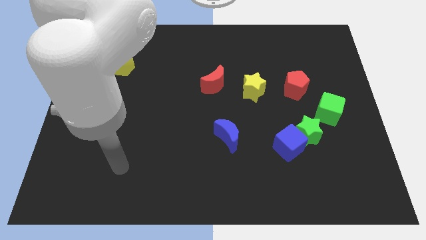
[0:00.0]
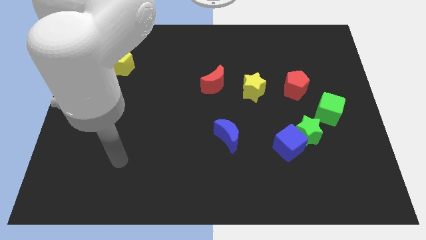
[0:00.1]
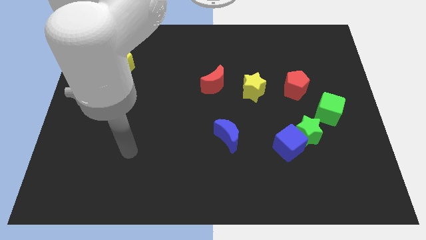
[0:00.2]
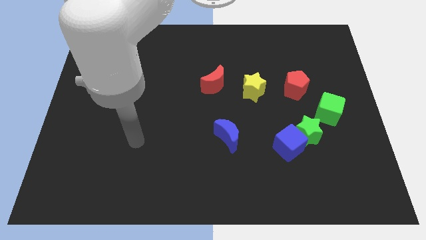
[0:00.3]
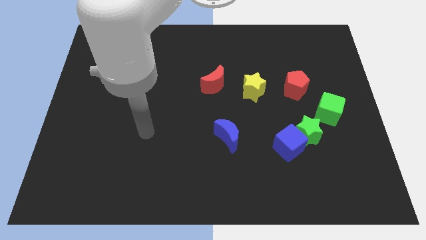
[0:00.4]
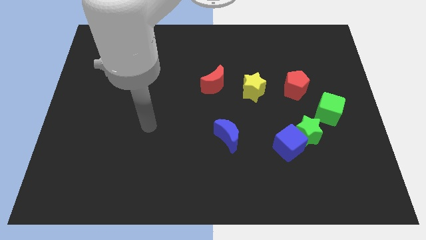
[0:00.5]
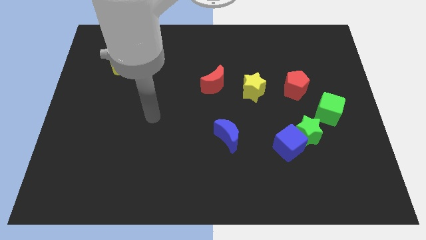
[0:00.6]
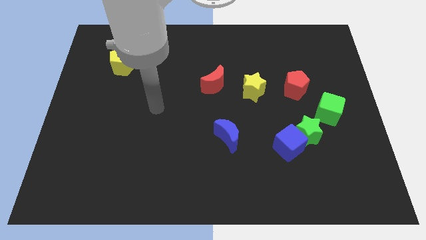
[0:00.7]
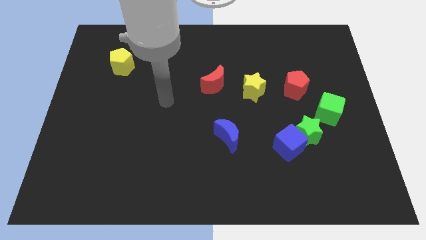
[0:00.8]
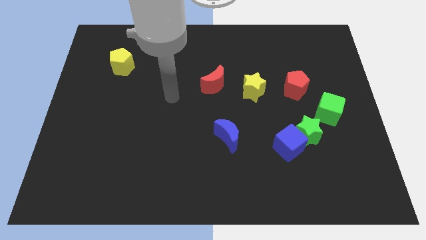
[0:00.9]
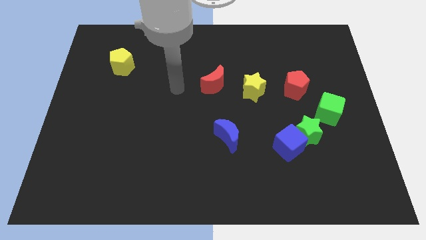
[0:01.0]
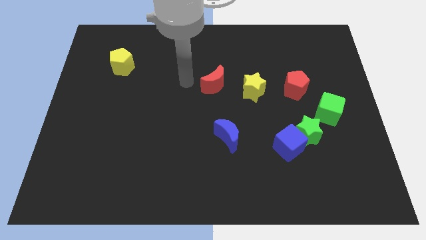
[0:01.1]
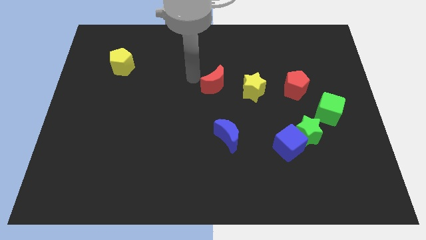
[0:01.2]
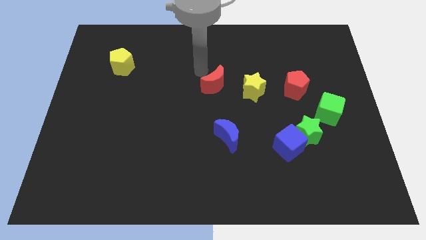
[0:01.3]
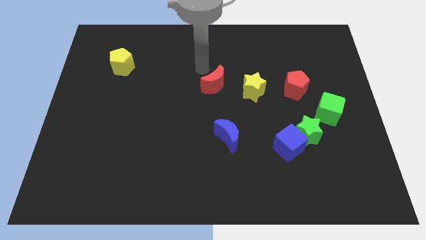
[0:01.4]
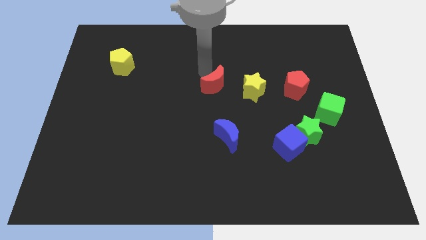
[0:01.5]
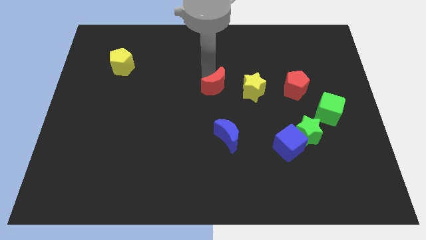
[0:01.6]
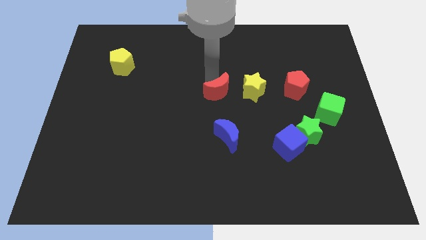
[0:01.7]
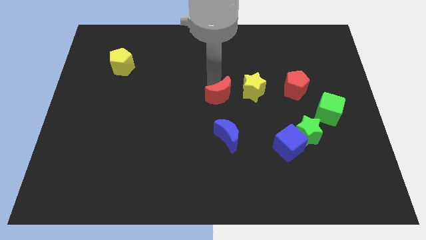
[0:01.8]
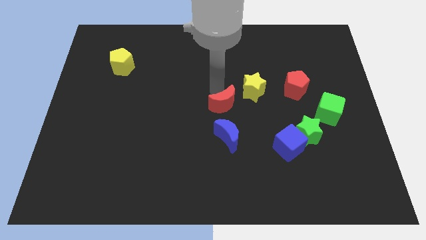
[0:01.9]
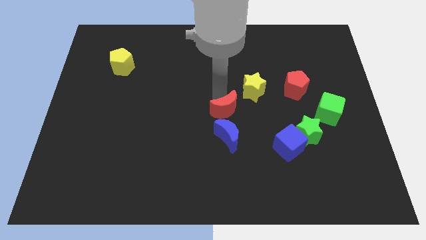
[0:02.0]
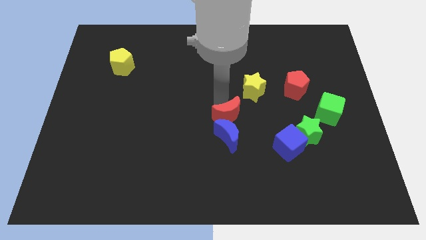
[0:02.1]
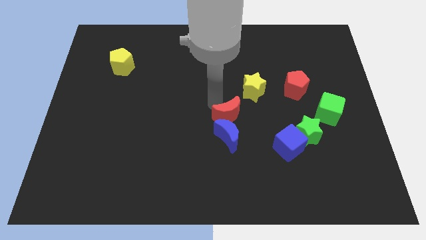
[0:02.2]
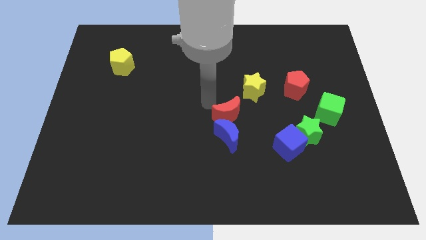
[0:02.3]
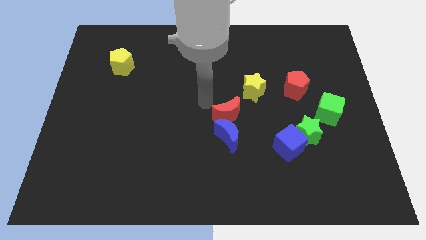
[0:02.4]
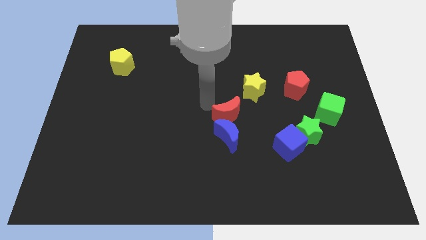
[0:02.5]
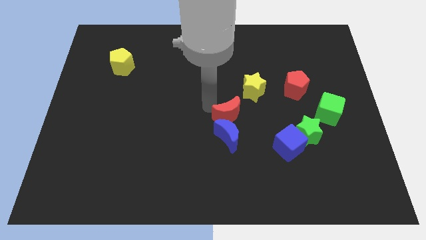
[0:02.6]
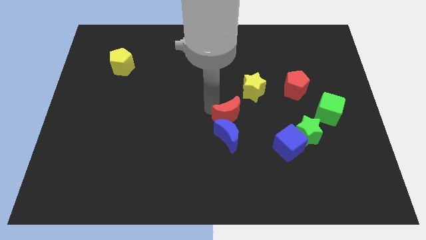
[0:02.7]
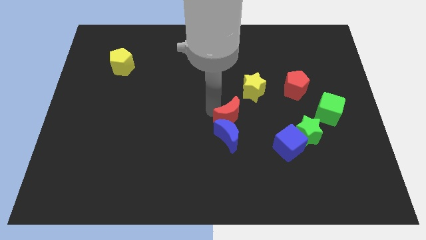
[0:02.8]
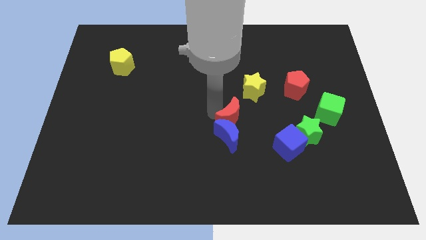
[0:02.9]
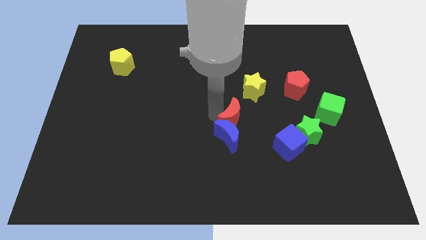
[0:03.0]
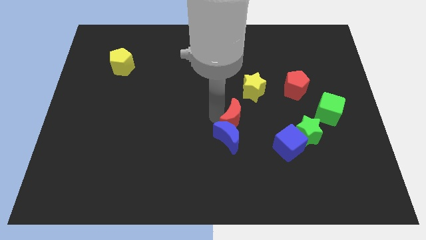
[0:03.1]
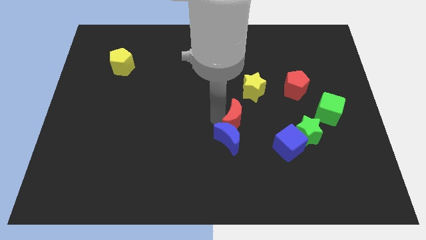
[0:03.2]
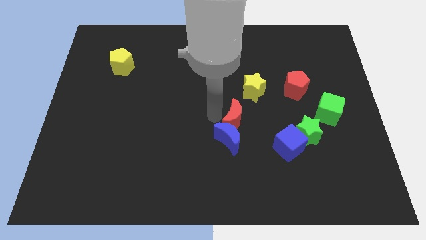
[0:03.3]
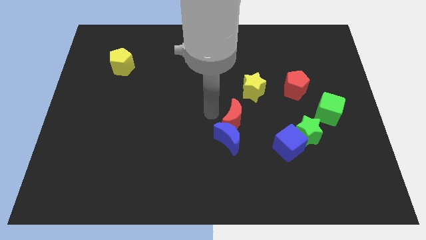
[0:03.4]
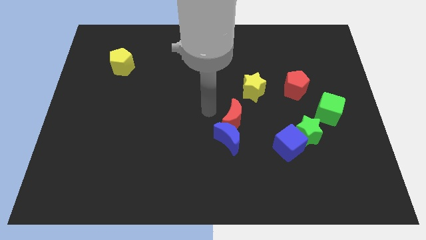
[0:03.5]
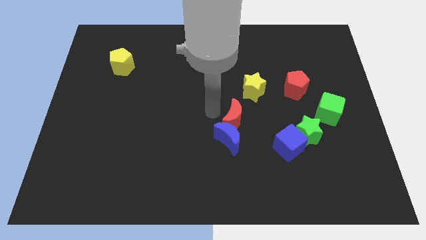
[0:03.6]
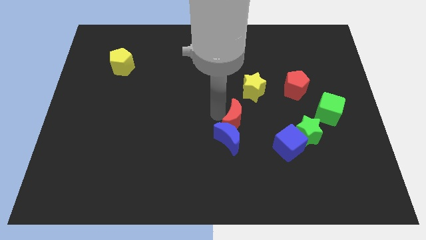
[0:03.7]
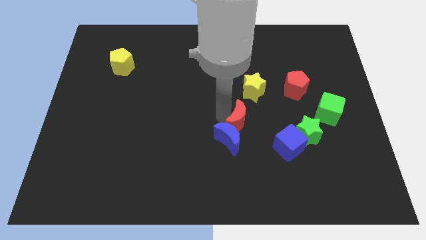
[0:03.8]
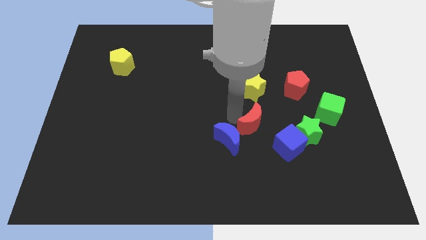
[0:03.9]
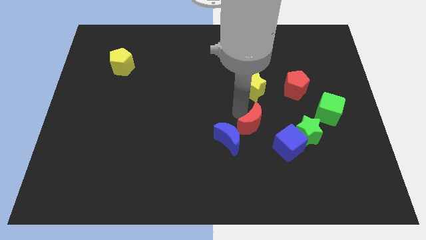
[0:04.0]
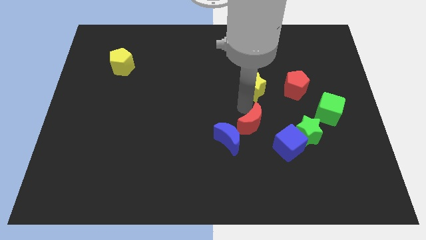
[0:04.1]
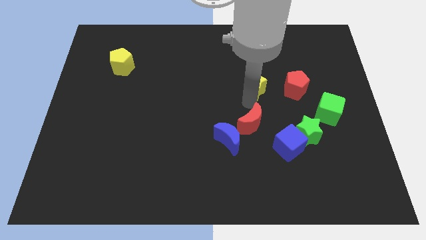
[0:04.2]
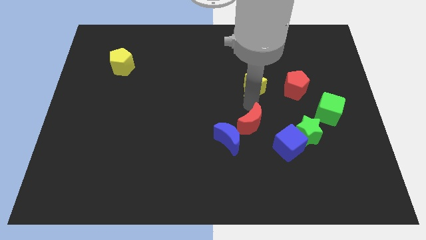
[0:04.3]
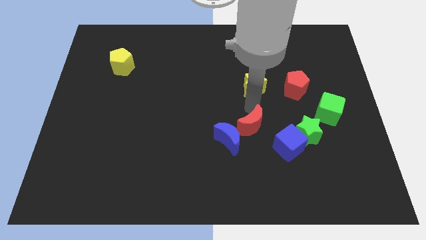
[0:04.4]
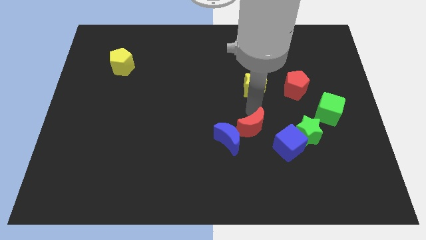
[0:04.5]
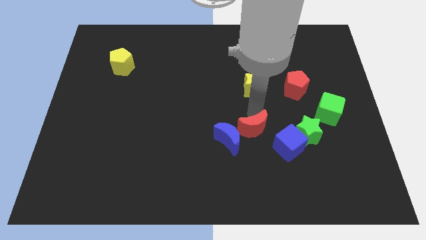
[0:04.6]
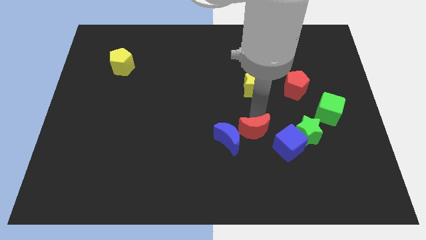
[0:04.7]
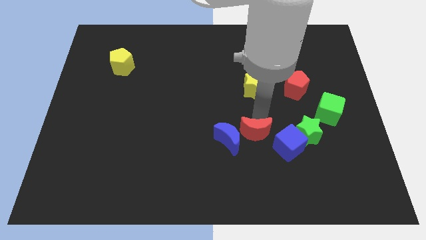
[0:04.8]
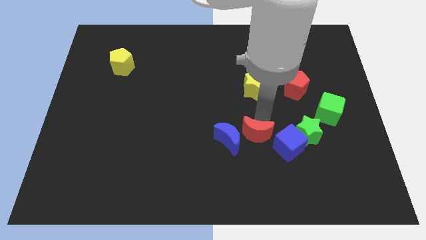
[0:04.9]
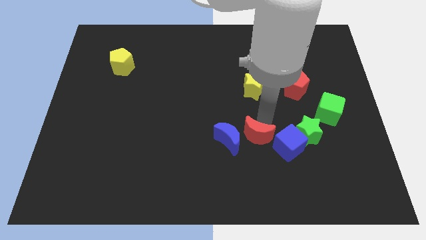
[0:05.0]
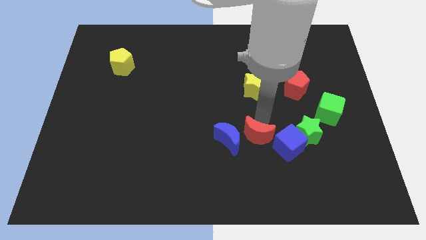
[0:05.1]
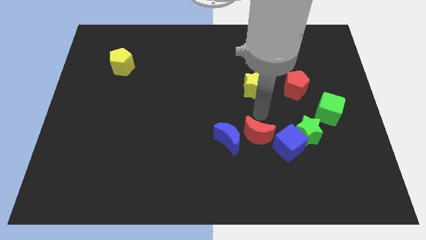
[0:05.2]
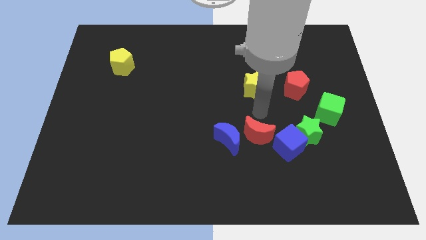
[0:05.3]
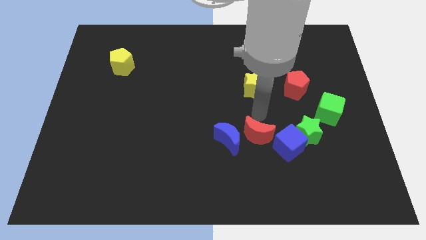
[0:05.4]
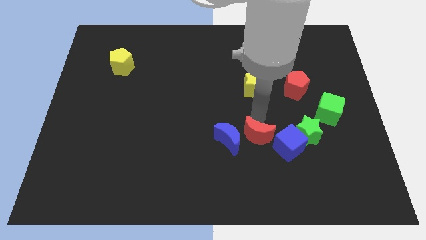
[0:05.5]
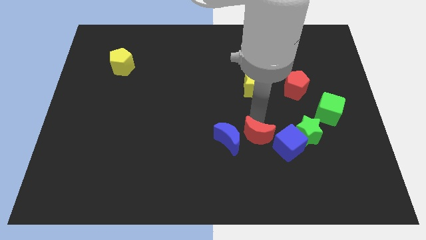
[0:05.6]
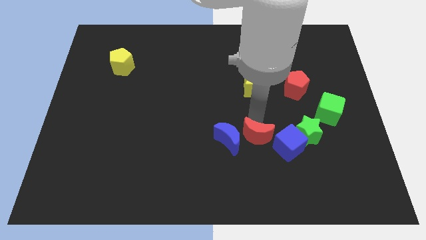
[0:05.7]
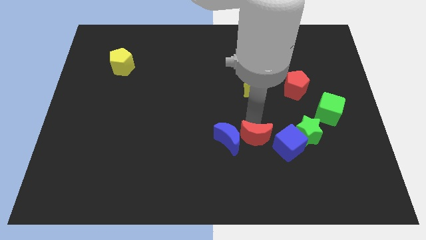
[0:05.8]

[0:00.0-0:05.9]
put the red moon to the bottom right of the blue moon
